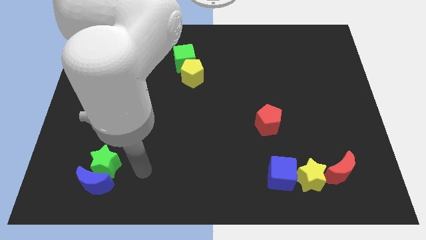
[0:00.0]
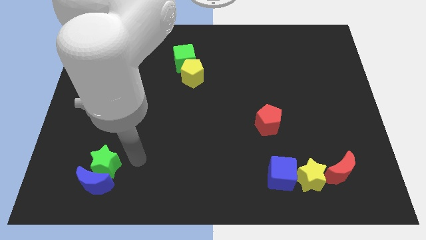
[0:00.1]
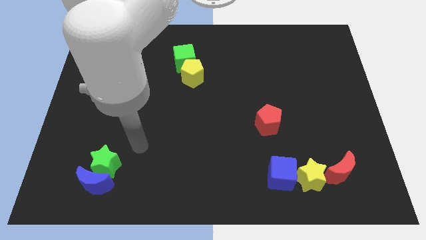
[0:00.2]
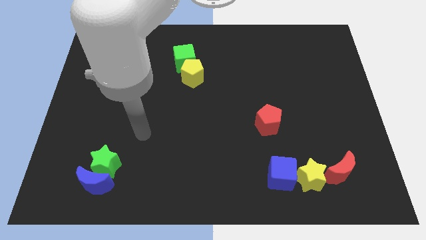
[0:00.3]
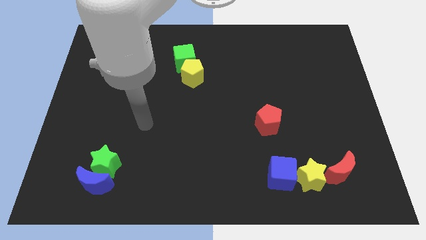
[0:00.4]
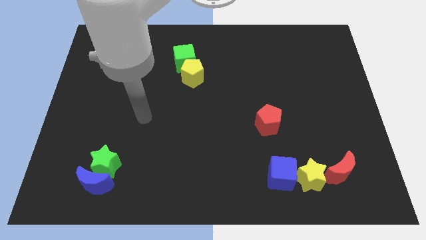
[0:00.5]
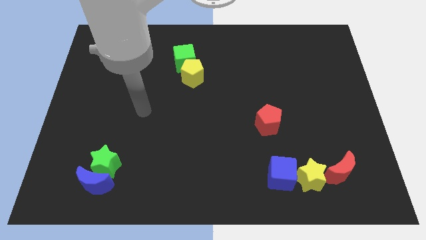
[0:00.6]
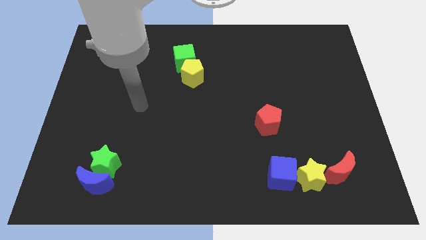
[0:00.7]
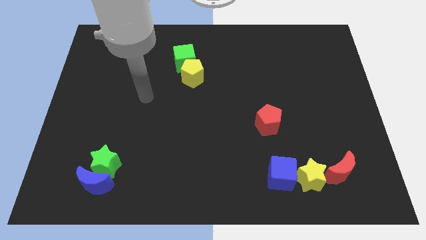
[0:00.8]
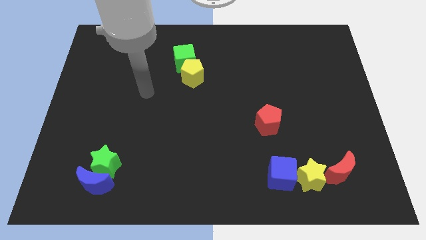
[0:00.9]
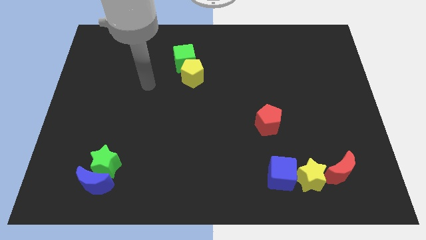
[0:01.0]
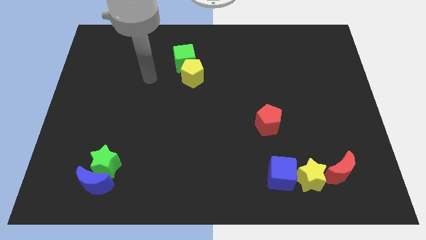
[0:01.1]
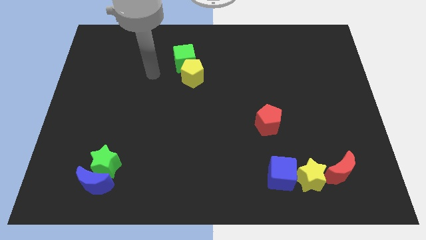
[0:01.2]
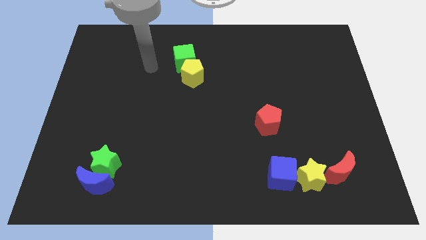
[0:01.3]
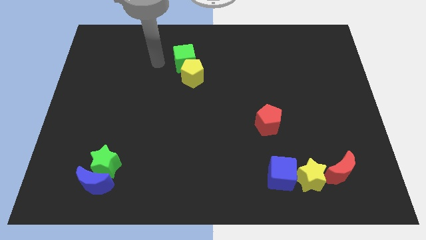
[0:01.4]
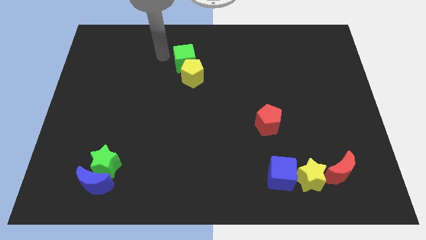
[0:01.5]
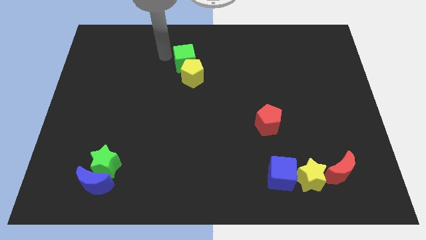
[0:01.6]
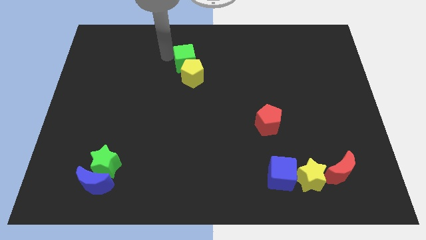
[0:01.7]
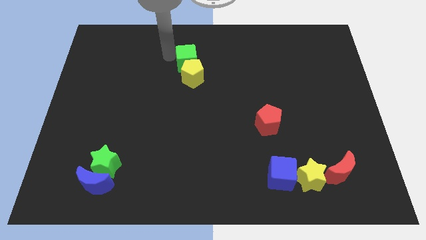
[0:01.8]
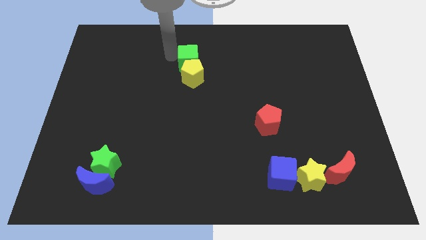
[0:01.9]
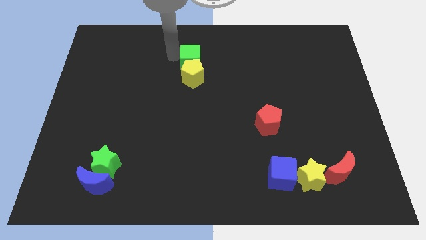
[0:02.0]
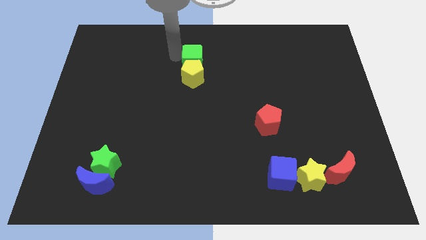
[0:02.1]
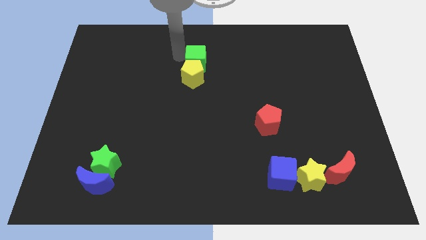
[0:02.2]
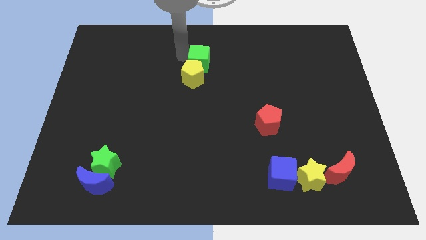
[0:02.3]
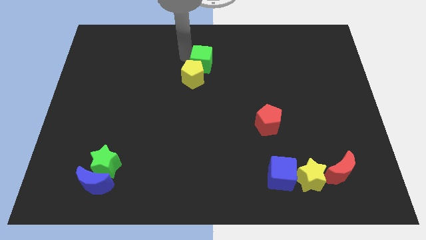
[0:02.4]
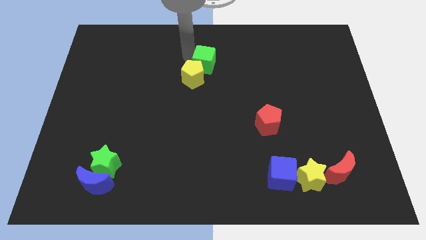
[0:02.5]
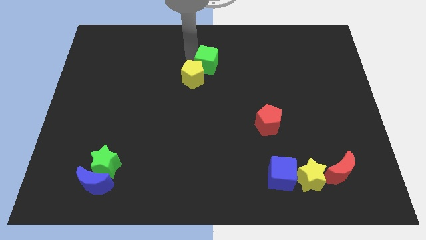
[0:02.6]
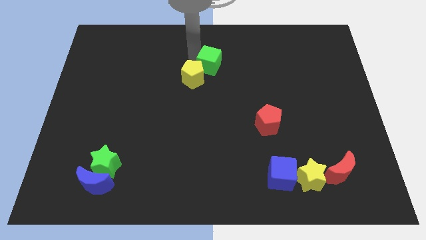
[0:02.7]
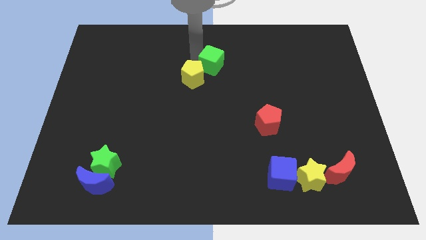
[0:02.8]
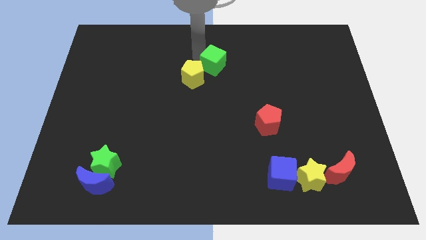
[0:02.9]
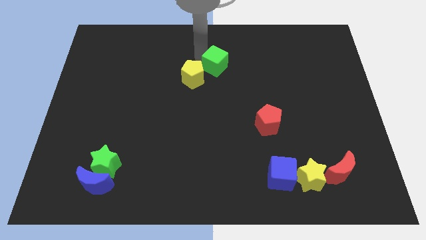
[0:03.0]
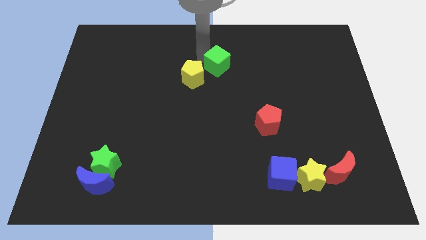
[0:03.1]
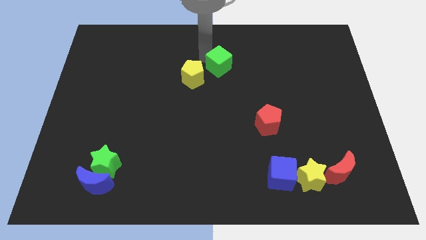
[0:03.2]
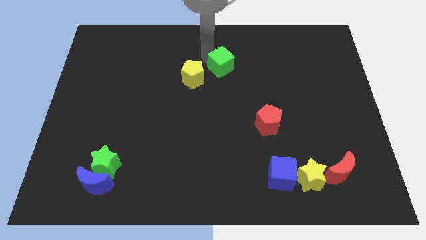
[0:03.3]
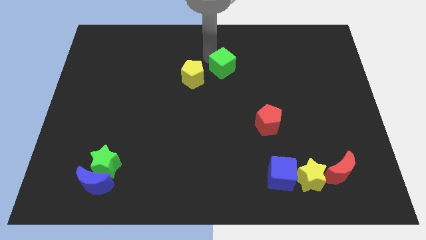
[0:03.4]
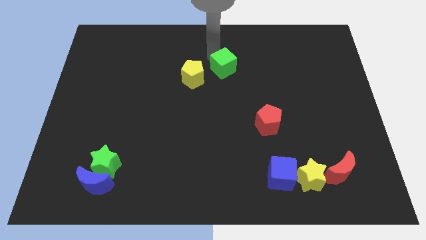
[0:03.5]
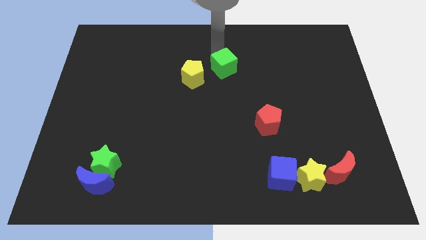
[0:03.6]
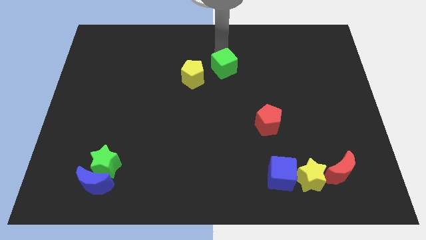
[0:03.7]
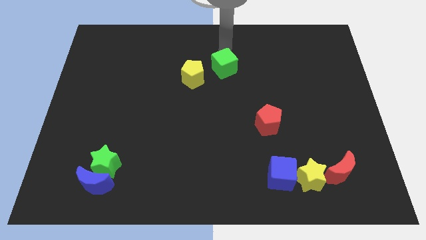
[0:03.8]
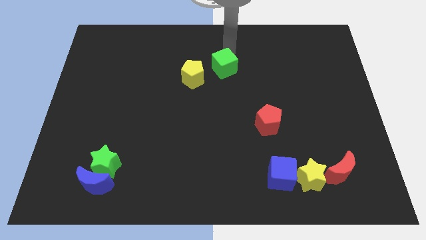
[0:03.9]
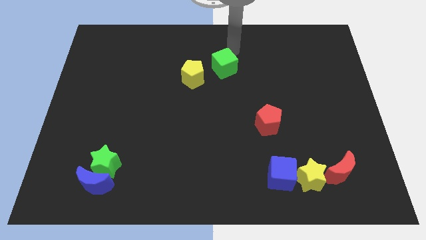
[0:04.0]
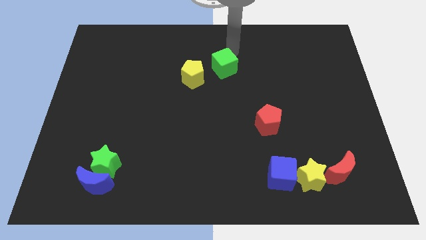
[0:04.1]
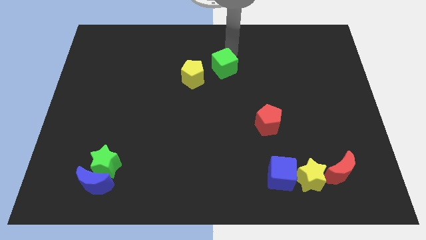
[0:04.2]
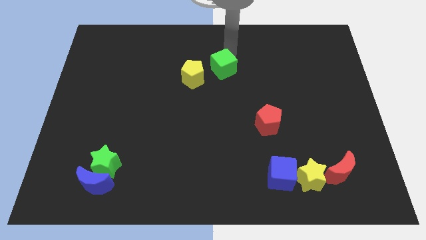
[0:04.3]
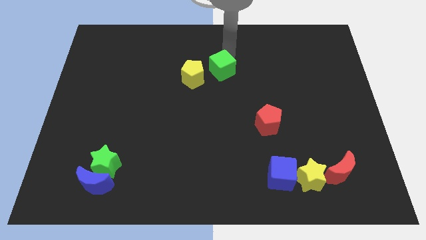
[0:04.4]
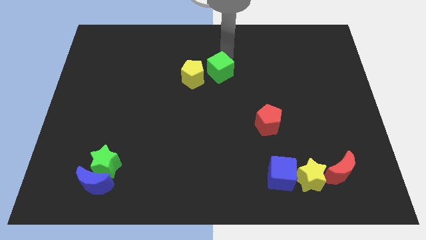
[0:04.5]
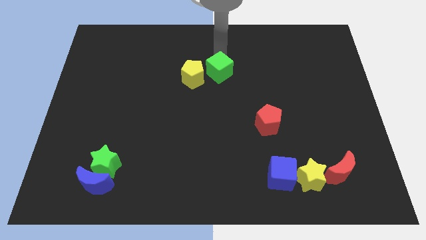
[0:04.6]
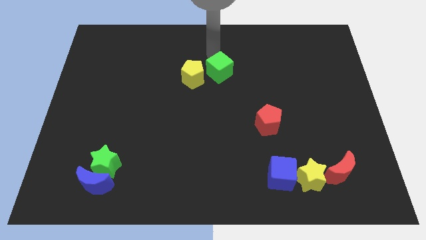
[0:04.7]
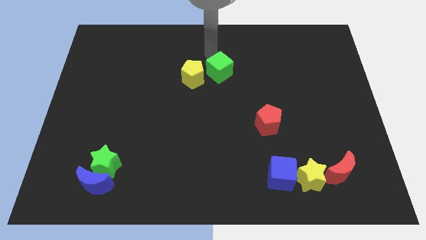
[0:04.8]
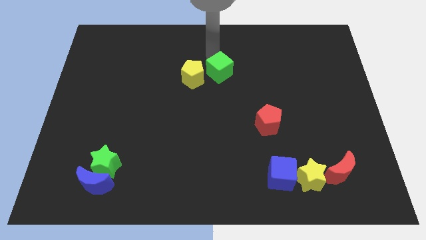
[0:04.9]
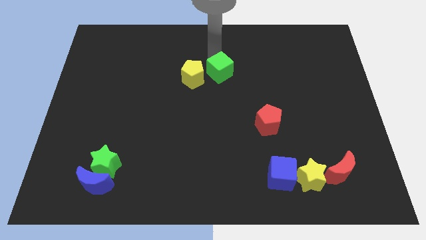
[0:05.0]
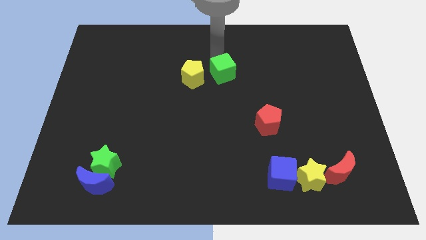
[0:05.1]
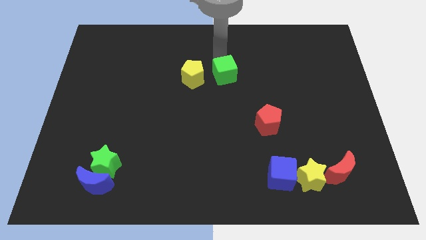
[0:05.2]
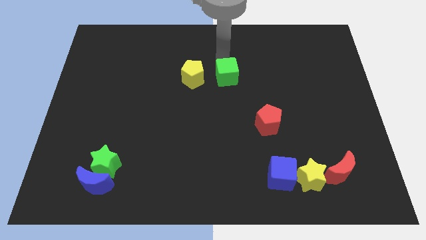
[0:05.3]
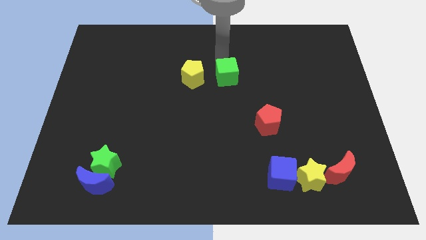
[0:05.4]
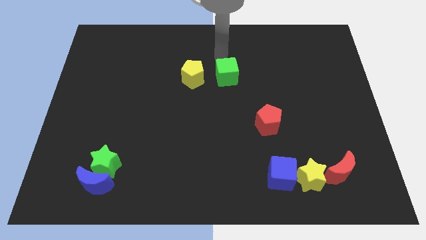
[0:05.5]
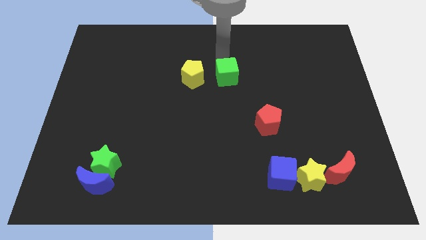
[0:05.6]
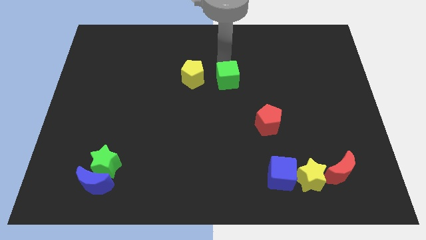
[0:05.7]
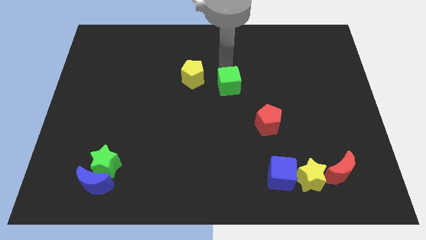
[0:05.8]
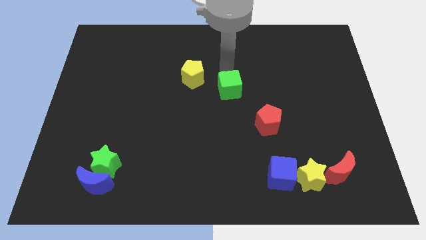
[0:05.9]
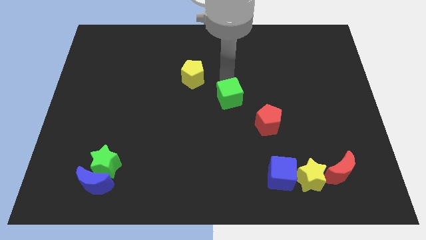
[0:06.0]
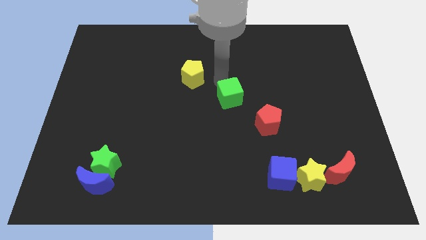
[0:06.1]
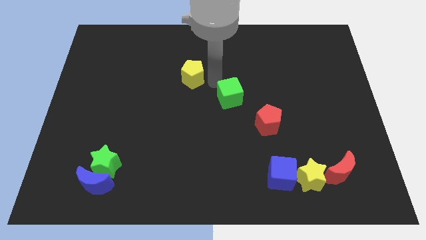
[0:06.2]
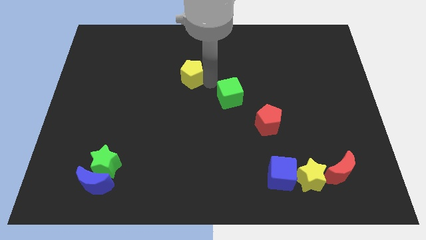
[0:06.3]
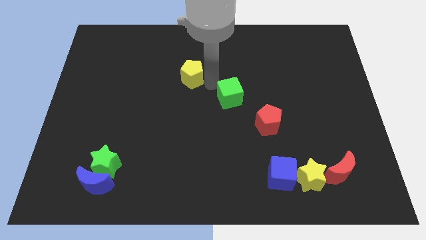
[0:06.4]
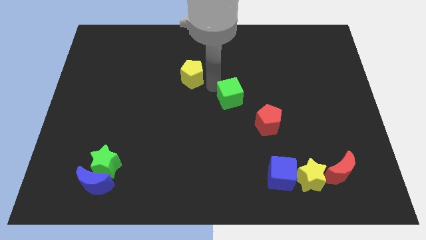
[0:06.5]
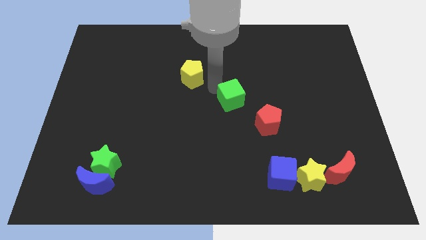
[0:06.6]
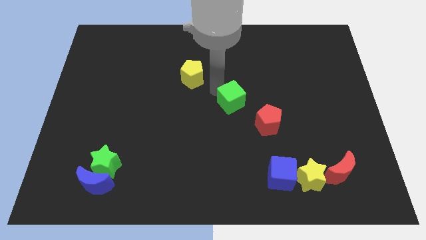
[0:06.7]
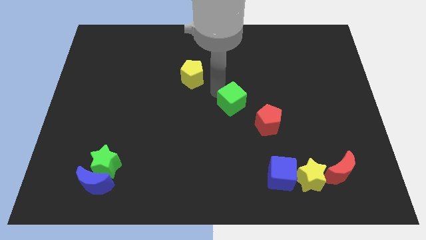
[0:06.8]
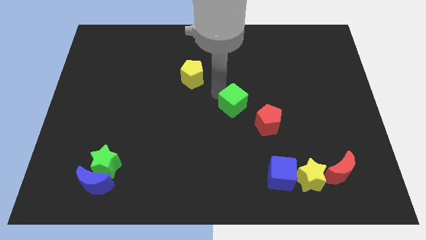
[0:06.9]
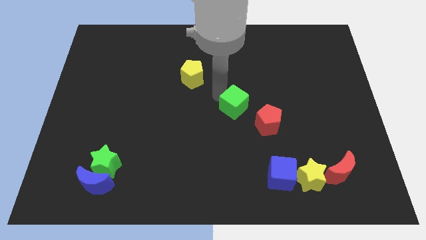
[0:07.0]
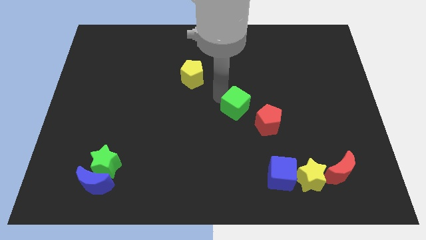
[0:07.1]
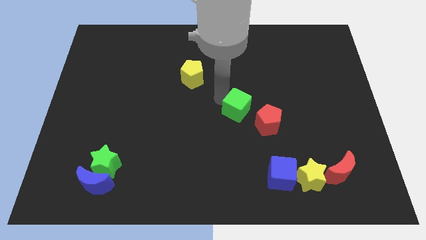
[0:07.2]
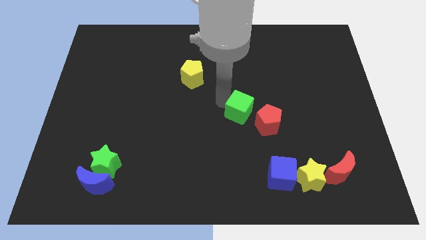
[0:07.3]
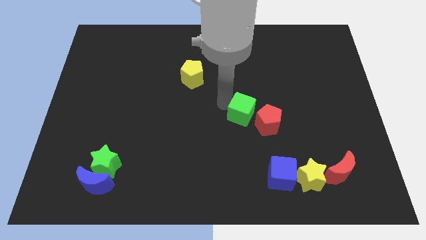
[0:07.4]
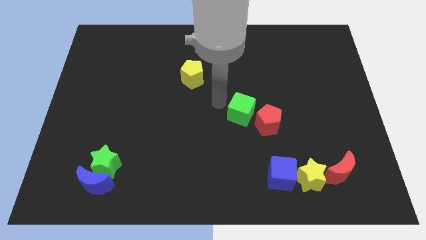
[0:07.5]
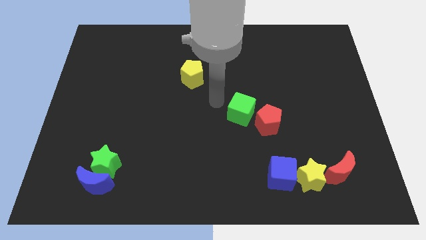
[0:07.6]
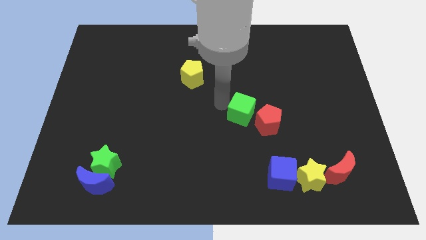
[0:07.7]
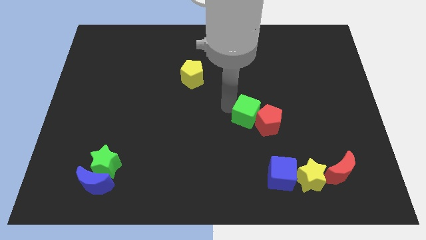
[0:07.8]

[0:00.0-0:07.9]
push the green cube to the red pentagon
